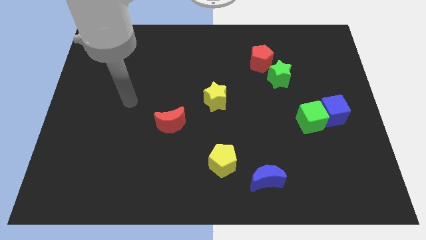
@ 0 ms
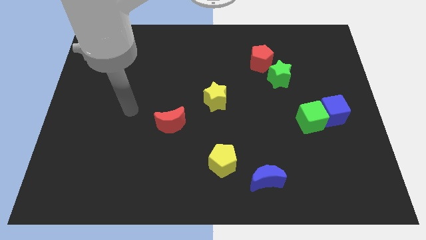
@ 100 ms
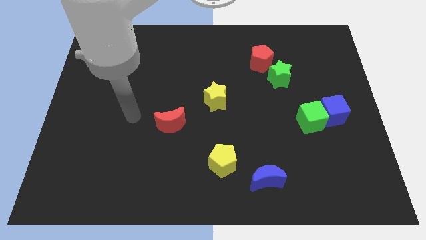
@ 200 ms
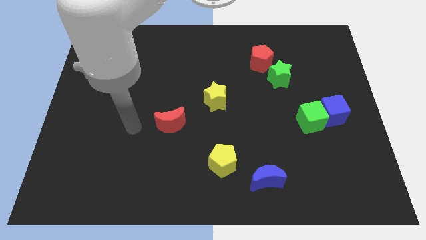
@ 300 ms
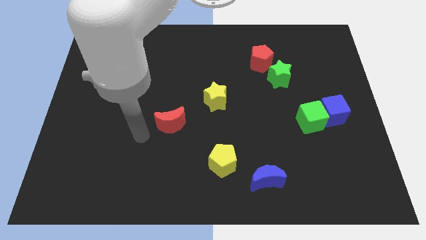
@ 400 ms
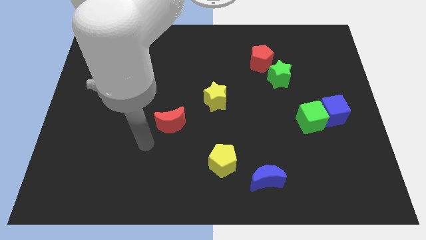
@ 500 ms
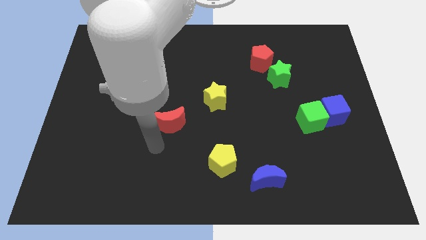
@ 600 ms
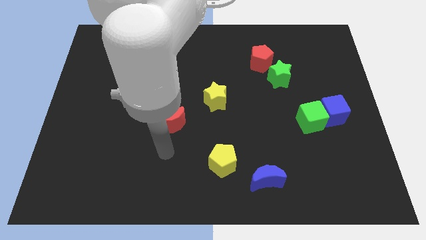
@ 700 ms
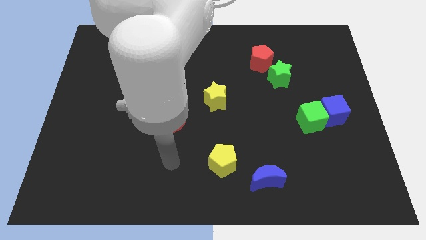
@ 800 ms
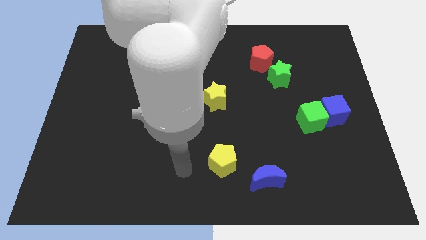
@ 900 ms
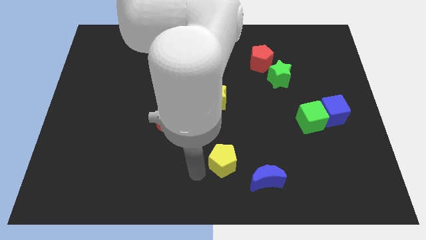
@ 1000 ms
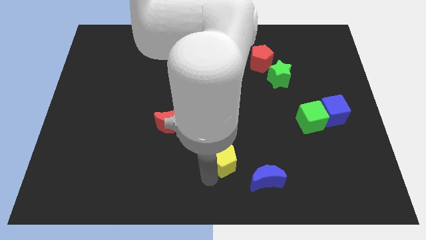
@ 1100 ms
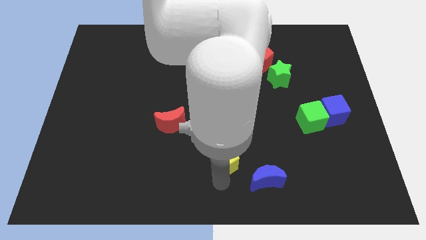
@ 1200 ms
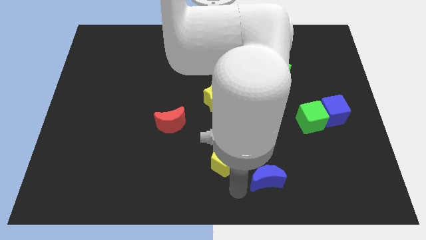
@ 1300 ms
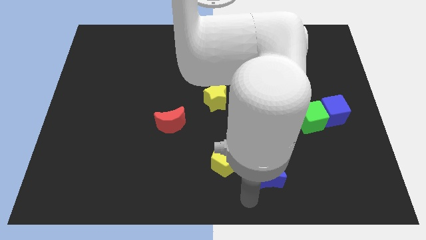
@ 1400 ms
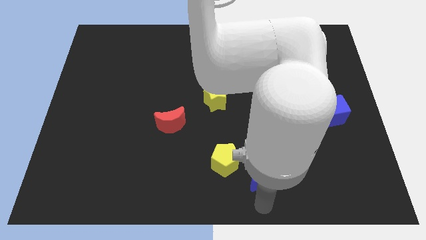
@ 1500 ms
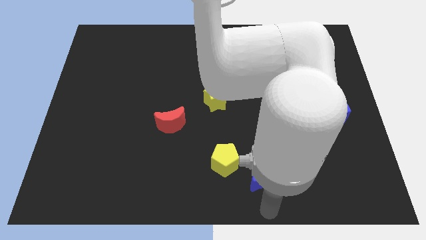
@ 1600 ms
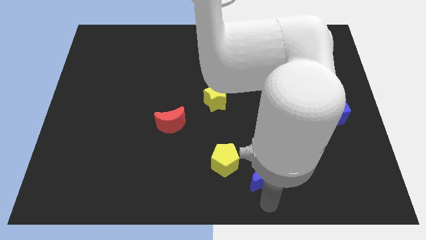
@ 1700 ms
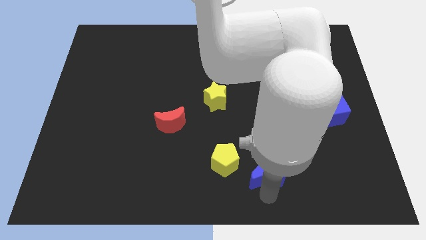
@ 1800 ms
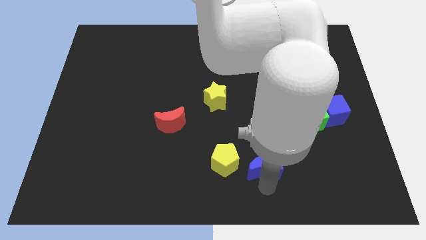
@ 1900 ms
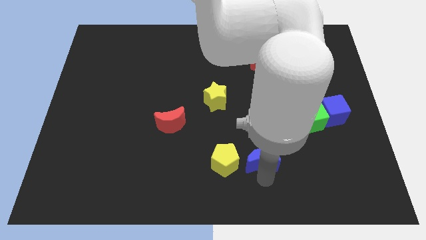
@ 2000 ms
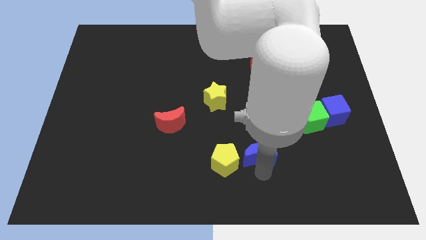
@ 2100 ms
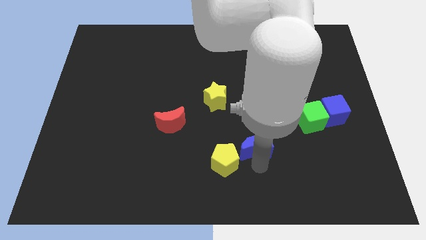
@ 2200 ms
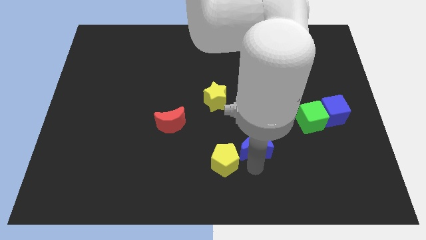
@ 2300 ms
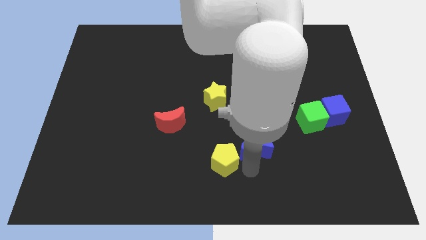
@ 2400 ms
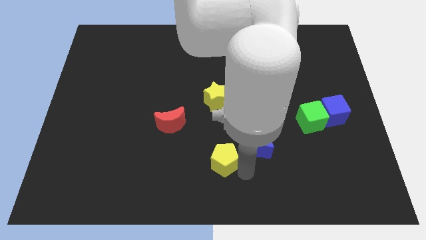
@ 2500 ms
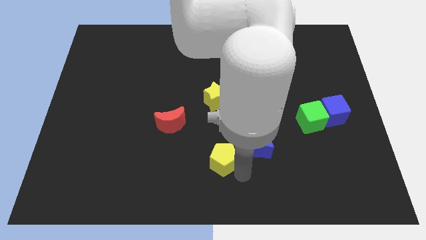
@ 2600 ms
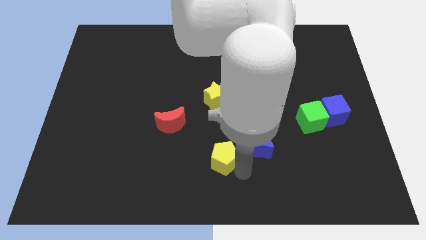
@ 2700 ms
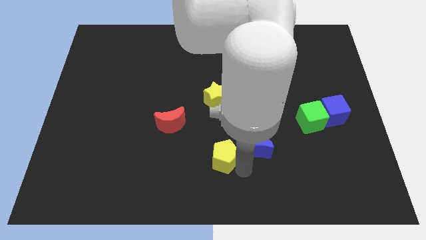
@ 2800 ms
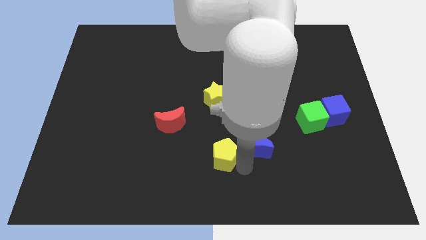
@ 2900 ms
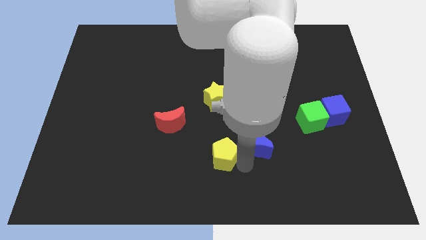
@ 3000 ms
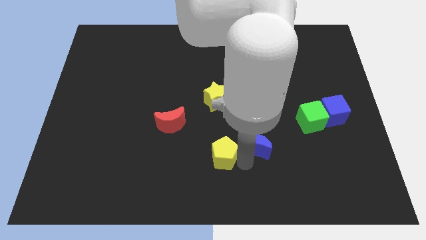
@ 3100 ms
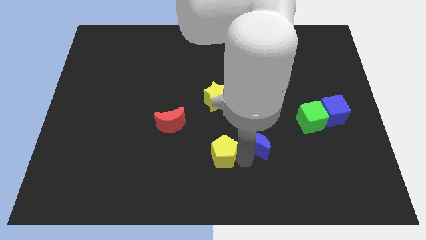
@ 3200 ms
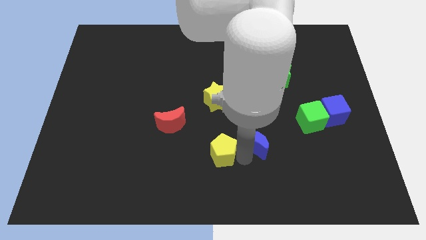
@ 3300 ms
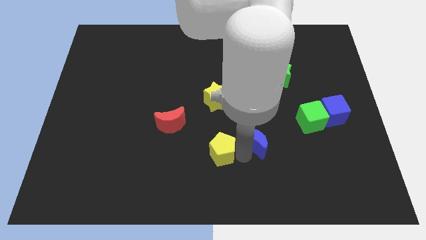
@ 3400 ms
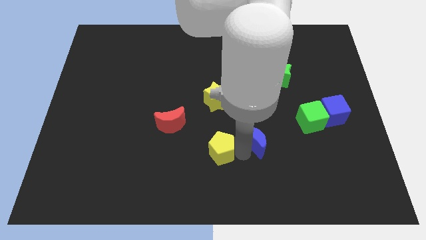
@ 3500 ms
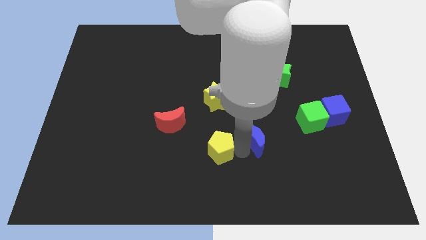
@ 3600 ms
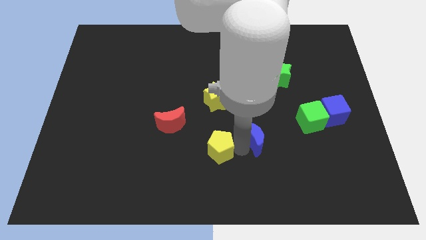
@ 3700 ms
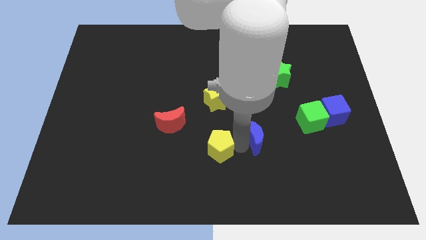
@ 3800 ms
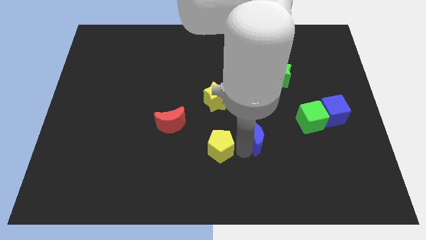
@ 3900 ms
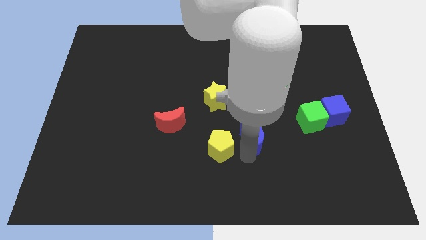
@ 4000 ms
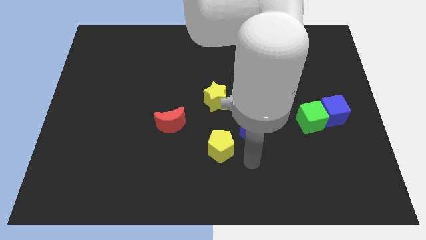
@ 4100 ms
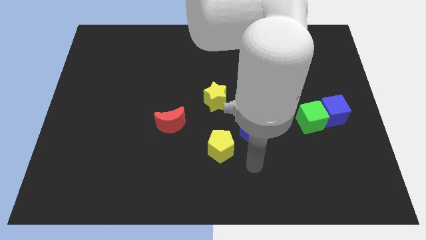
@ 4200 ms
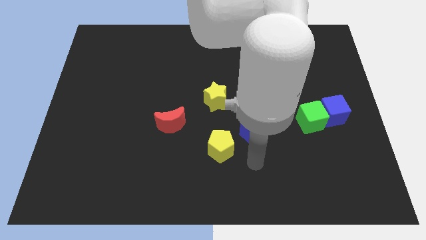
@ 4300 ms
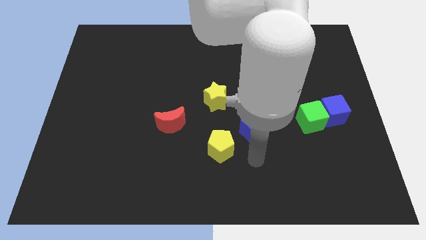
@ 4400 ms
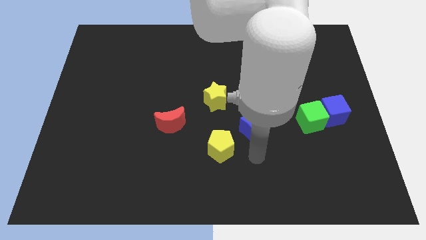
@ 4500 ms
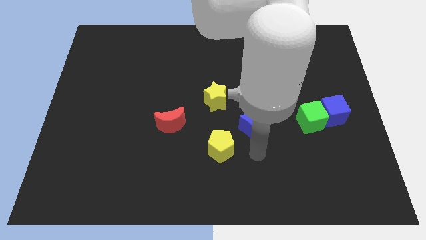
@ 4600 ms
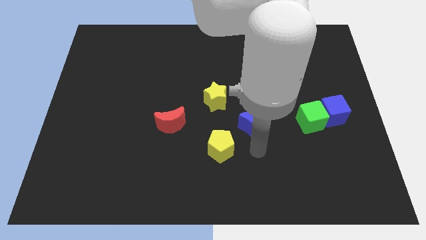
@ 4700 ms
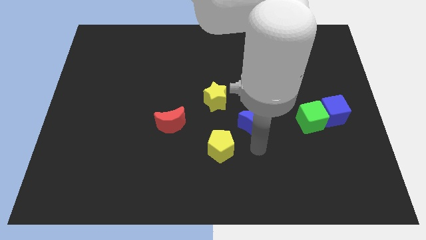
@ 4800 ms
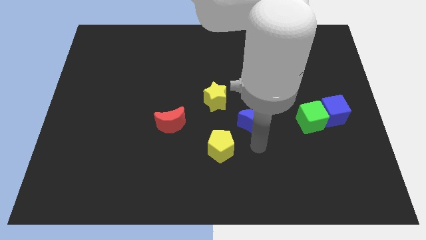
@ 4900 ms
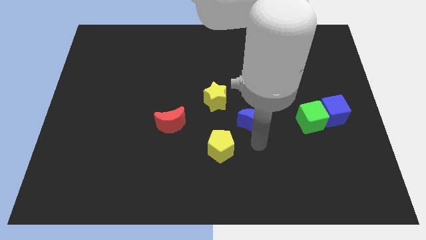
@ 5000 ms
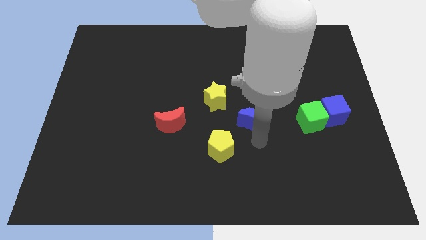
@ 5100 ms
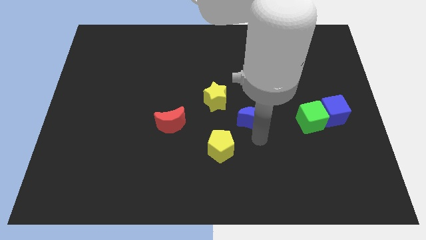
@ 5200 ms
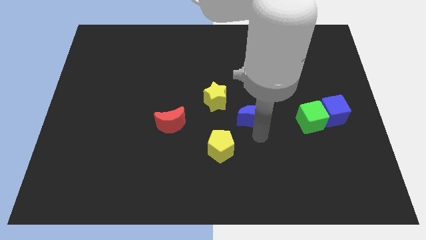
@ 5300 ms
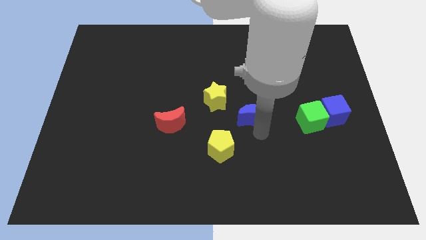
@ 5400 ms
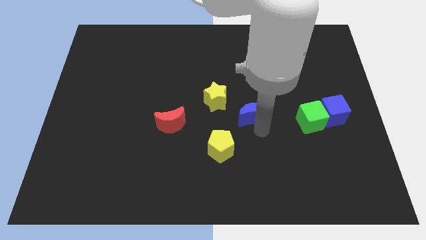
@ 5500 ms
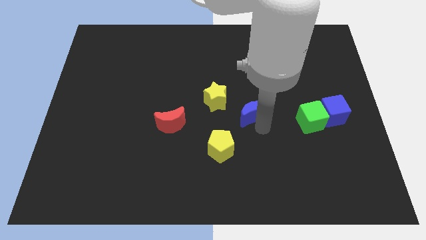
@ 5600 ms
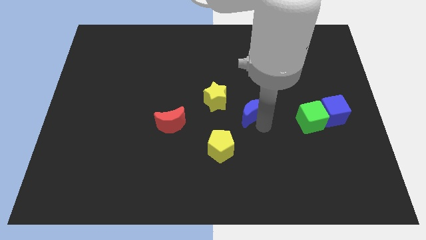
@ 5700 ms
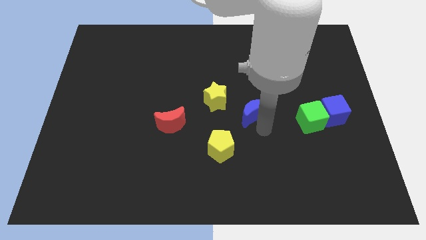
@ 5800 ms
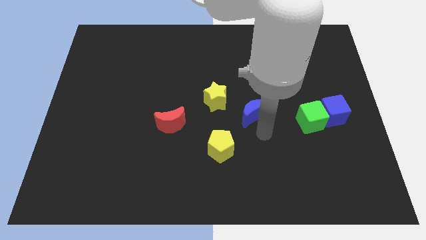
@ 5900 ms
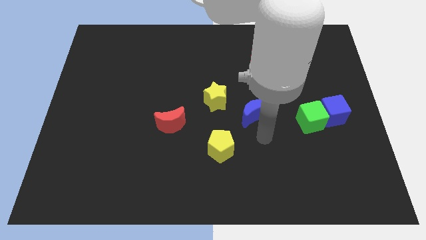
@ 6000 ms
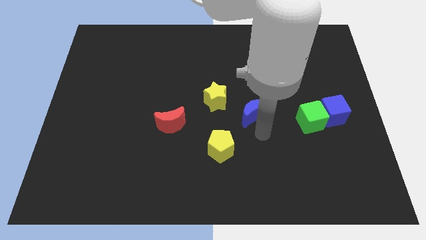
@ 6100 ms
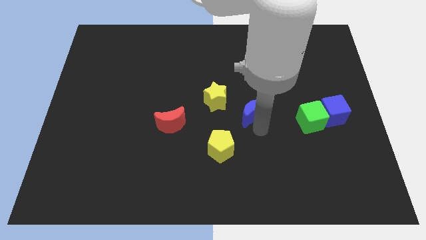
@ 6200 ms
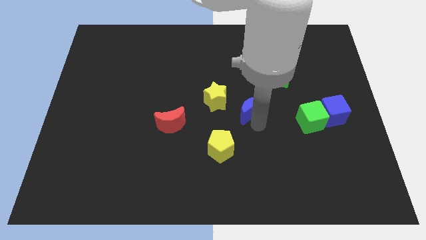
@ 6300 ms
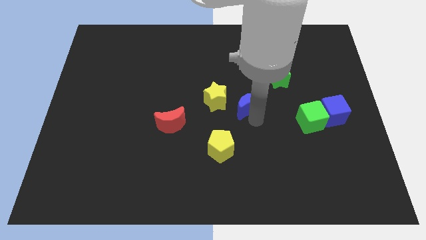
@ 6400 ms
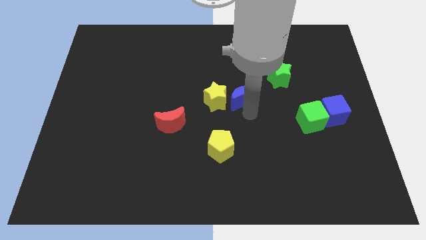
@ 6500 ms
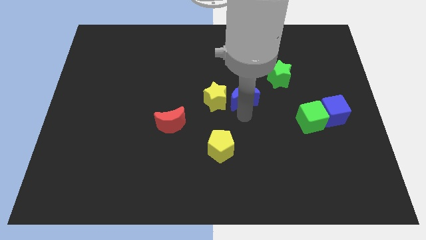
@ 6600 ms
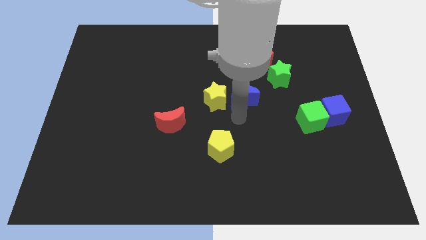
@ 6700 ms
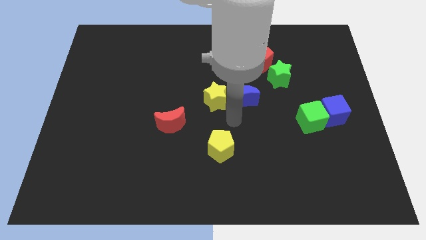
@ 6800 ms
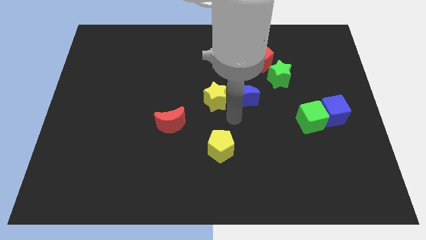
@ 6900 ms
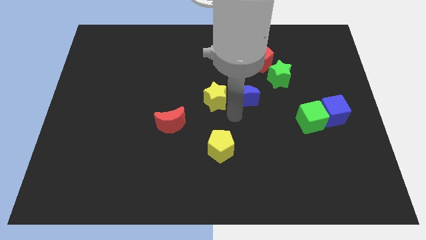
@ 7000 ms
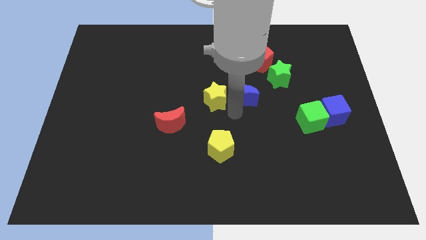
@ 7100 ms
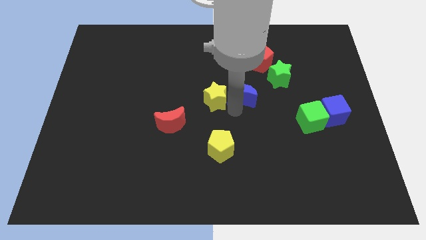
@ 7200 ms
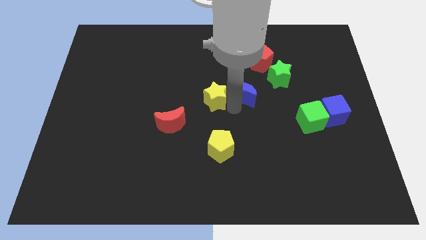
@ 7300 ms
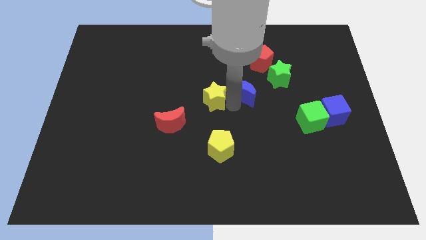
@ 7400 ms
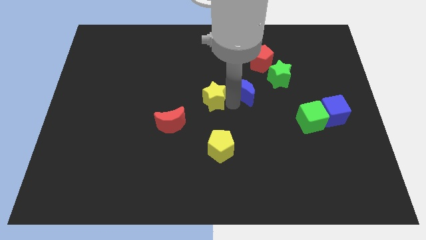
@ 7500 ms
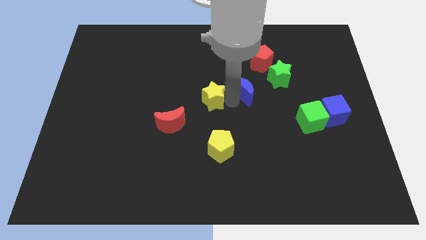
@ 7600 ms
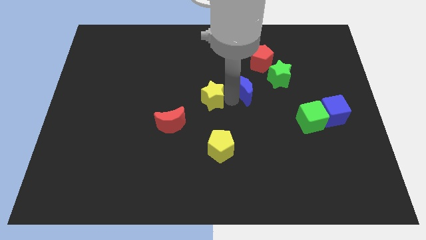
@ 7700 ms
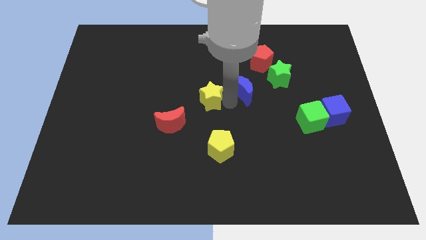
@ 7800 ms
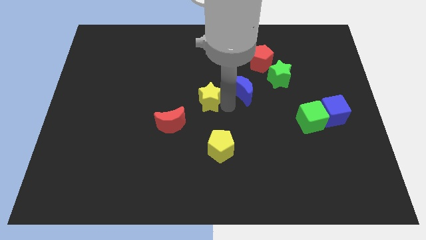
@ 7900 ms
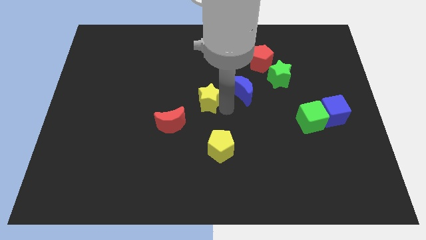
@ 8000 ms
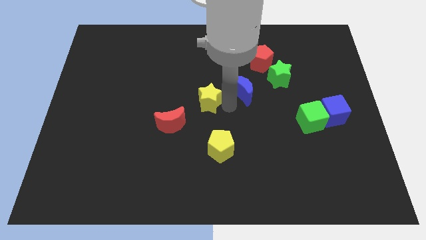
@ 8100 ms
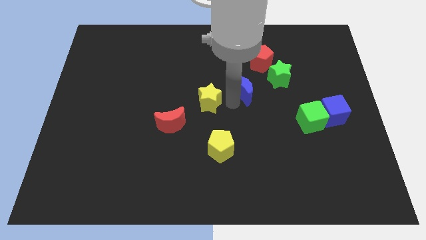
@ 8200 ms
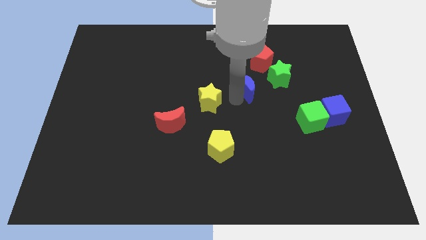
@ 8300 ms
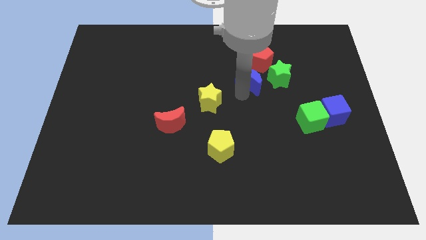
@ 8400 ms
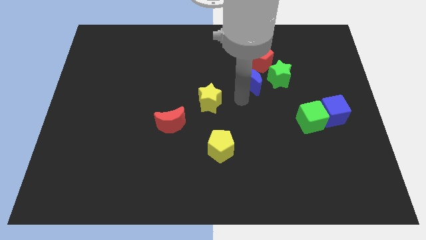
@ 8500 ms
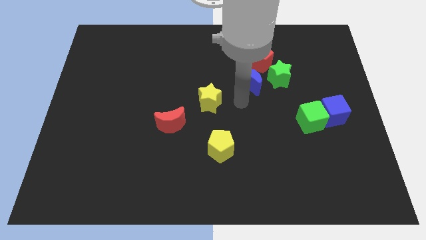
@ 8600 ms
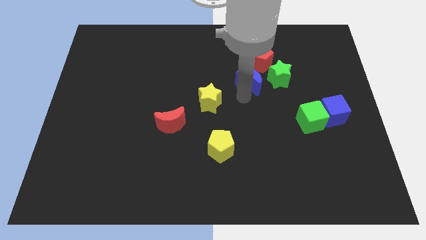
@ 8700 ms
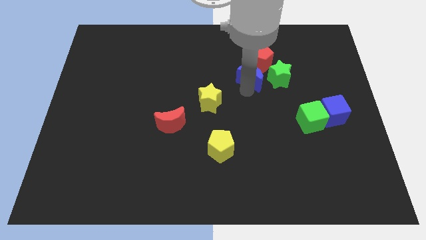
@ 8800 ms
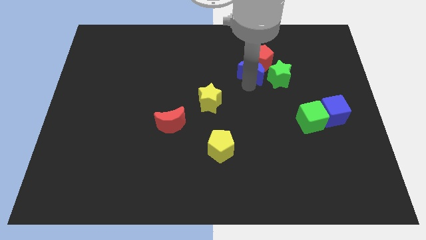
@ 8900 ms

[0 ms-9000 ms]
slide the blue moon close to the red pentagon
